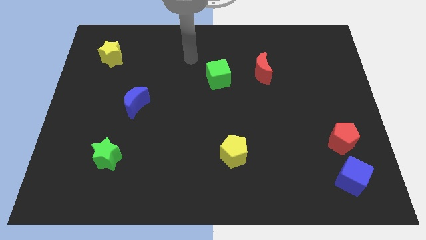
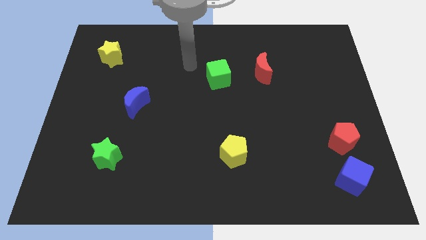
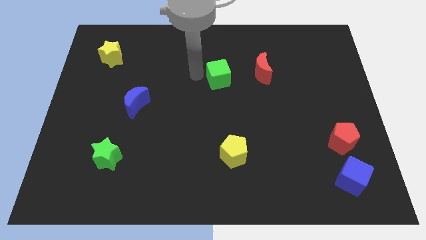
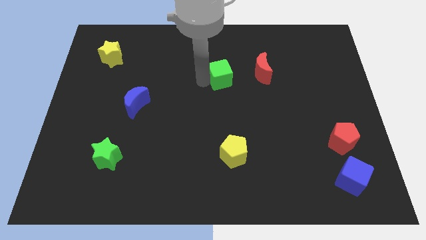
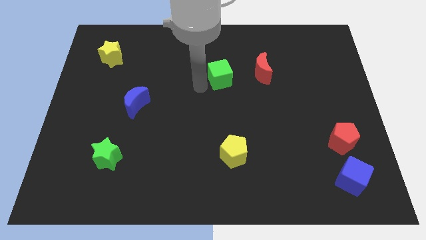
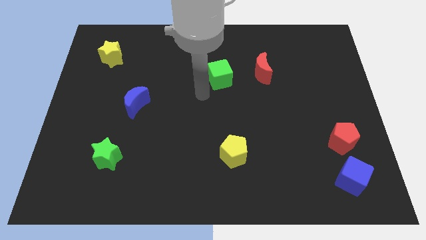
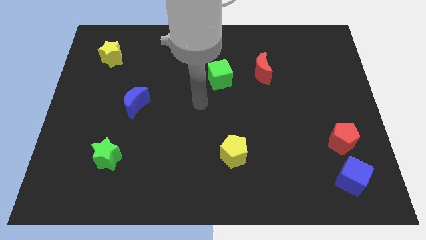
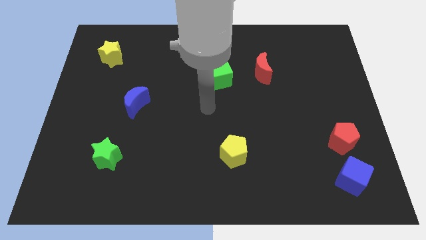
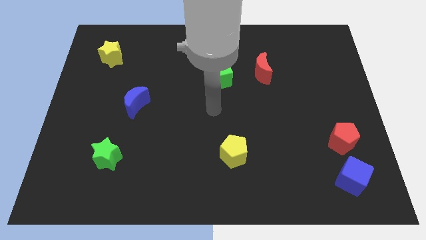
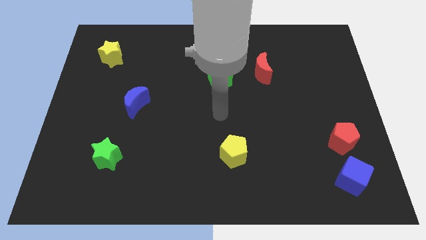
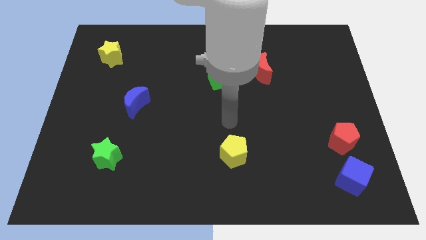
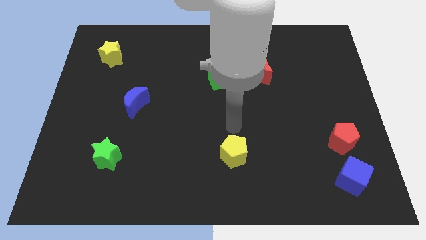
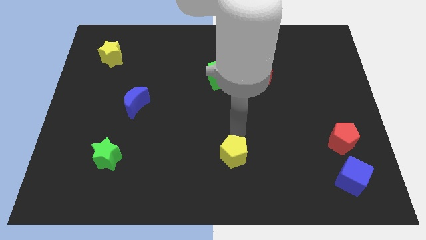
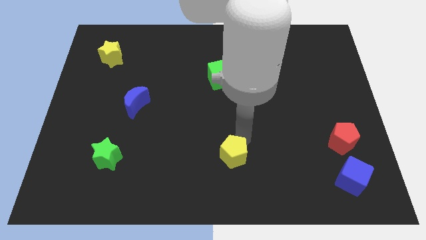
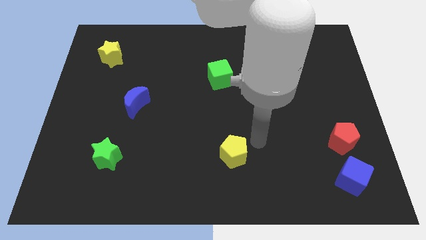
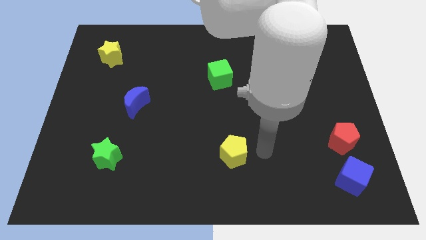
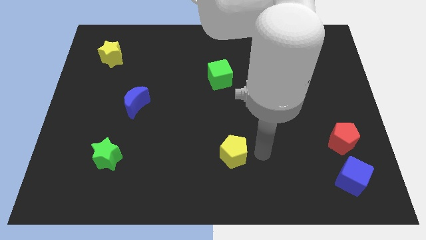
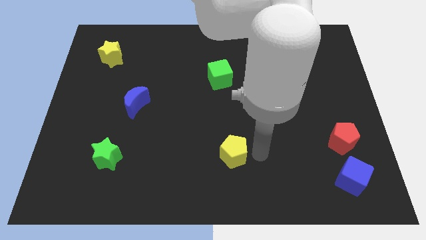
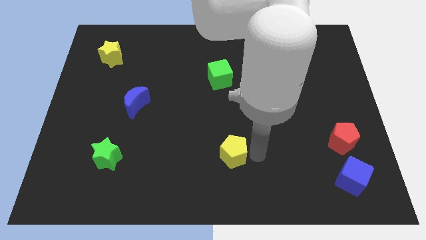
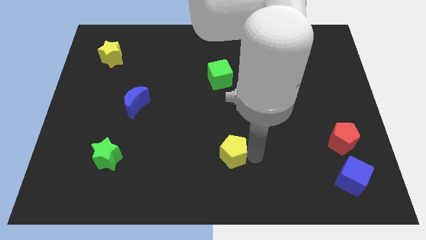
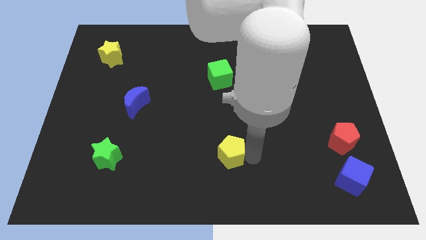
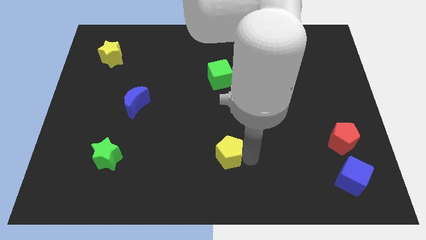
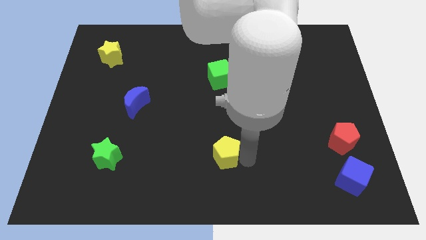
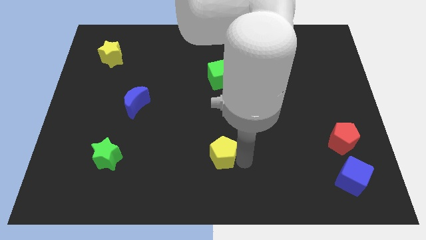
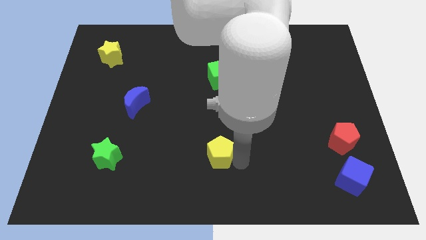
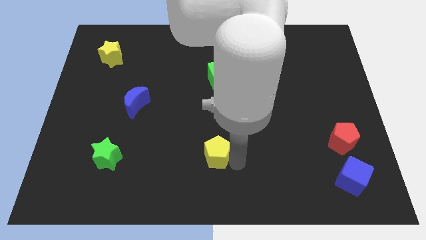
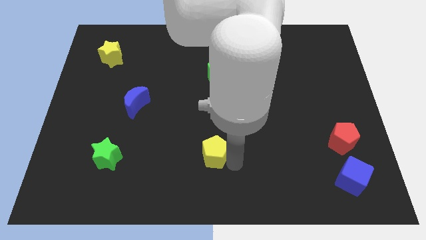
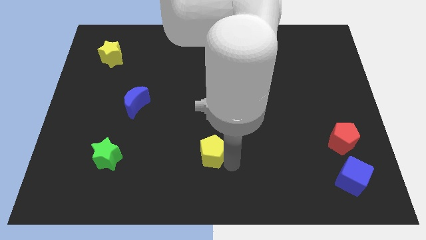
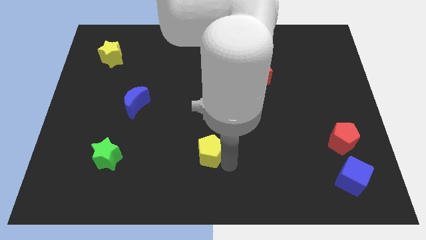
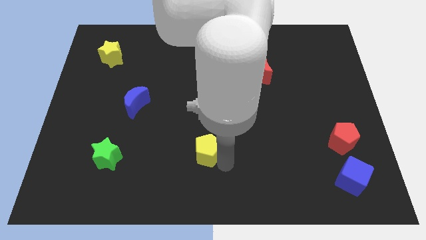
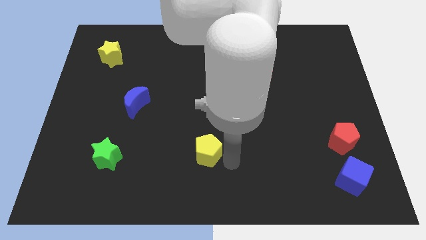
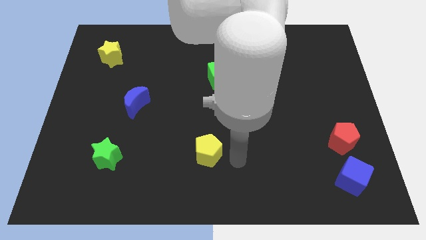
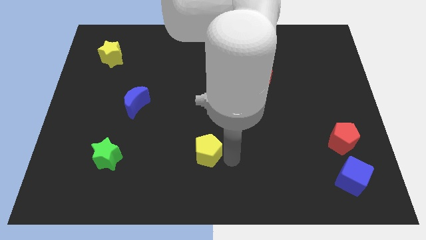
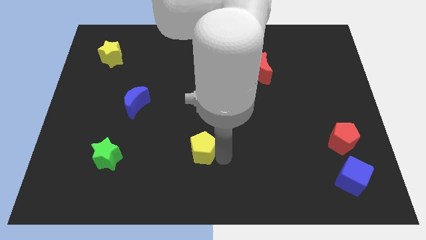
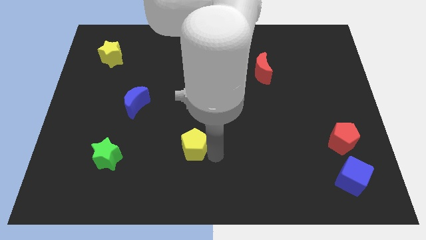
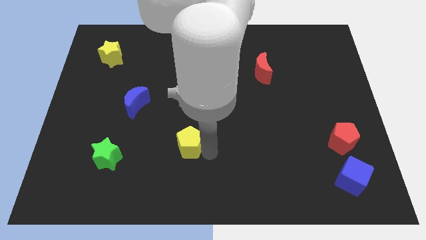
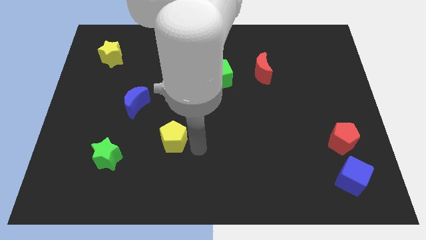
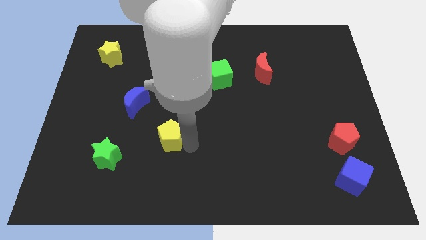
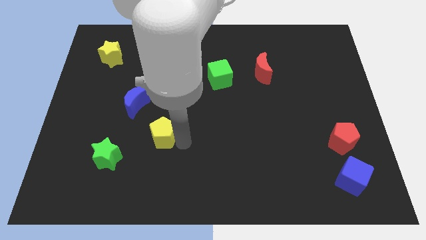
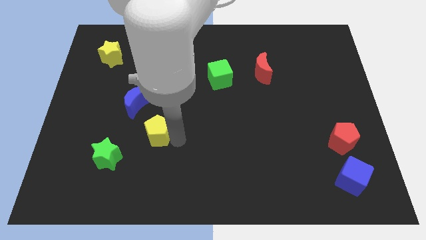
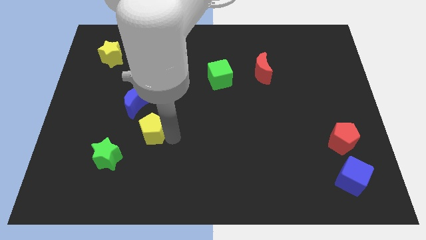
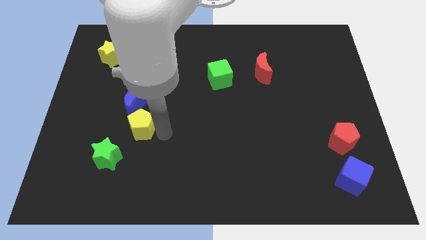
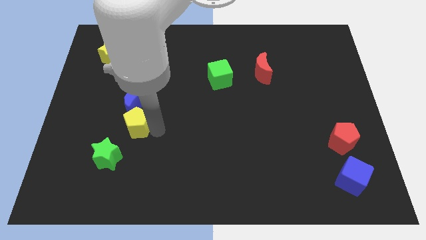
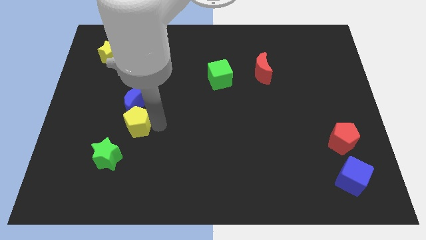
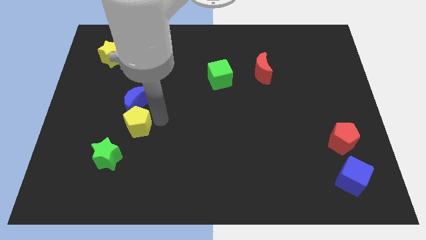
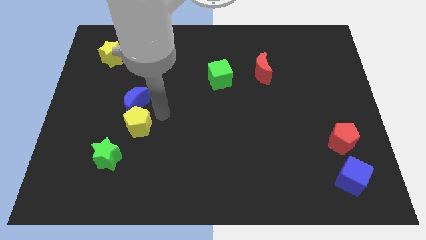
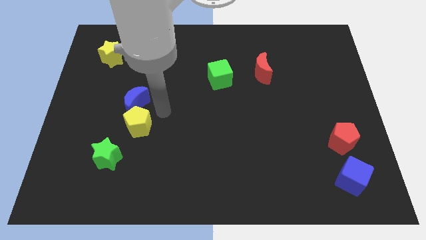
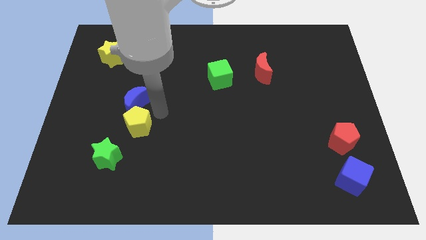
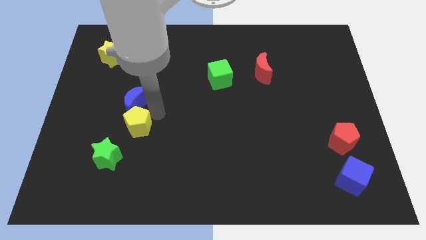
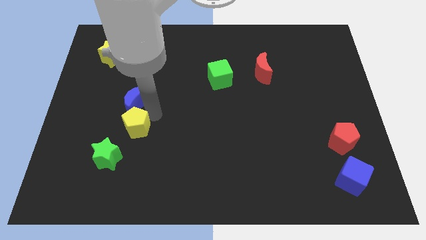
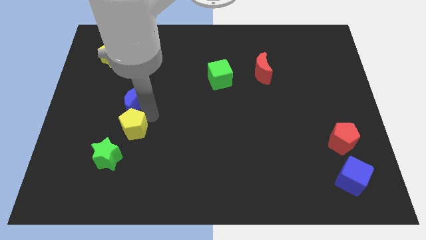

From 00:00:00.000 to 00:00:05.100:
move the yellow pentagon left

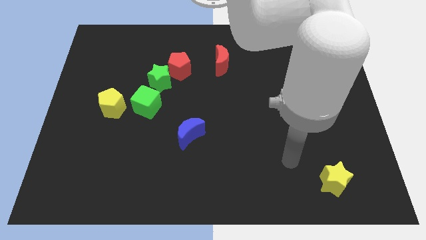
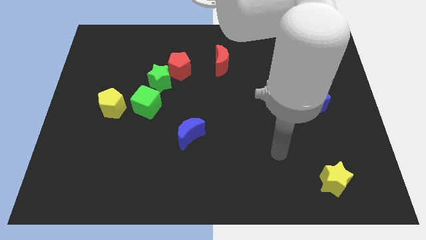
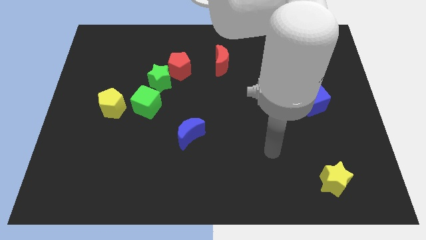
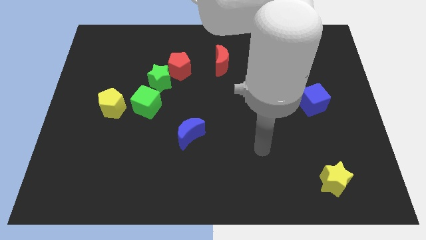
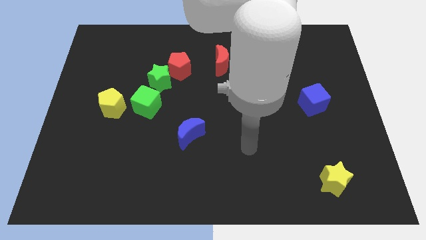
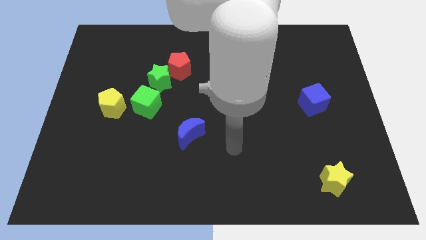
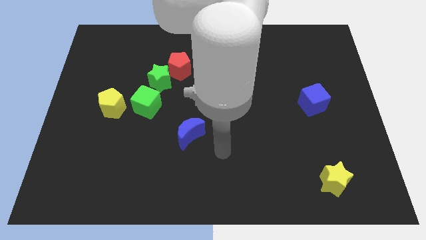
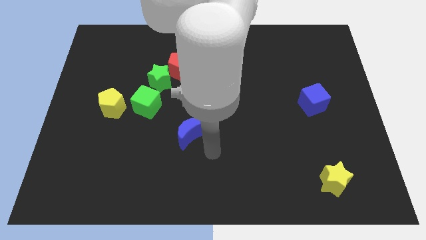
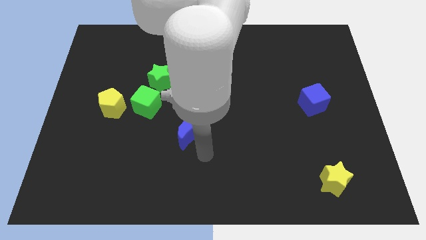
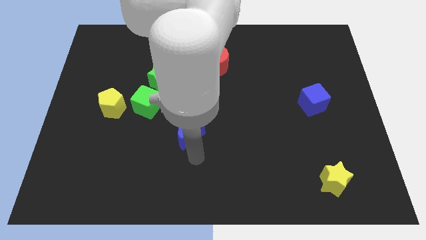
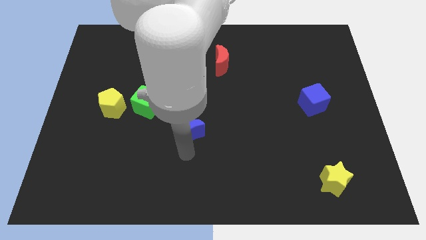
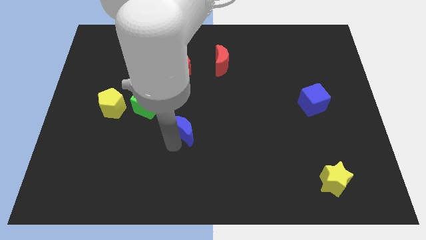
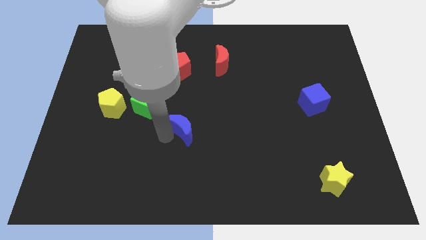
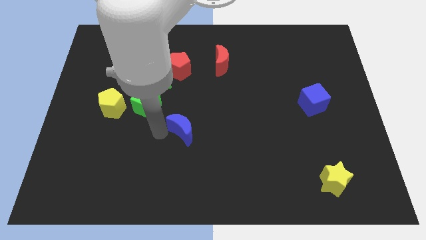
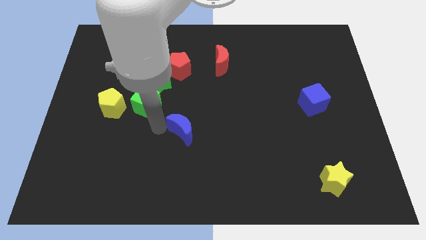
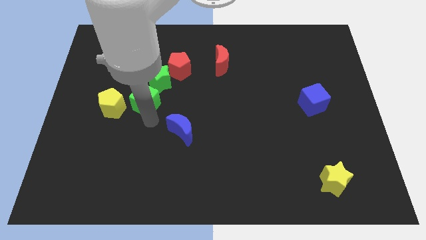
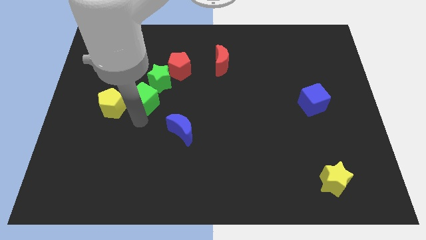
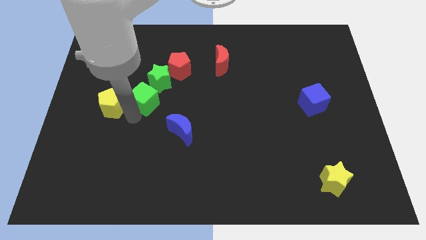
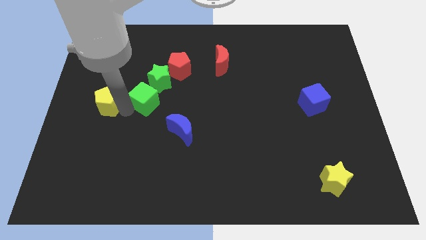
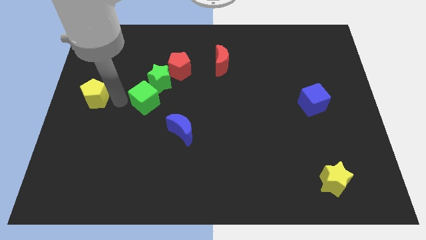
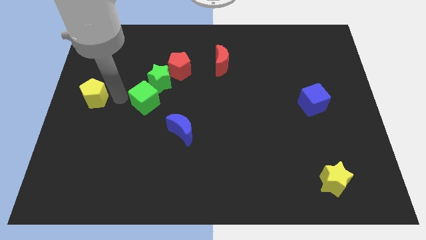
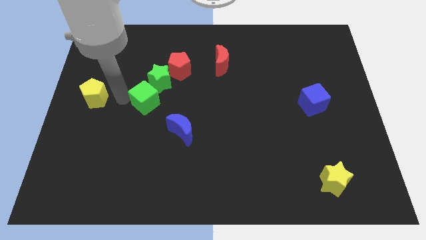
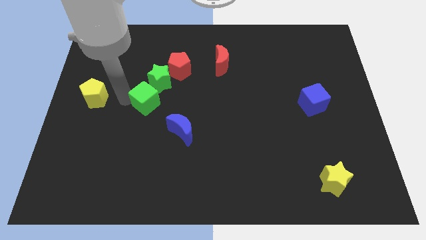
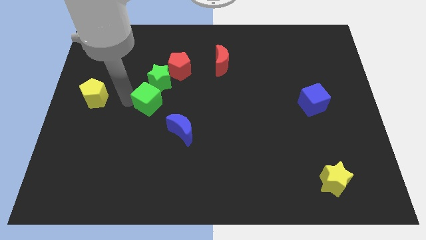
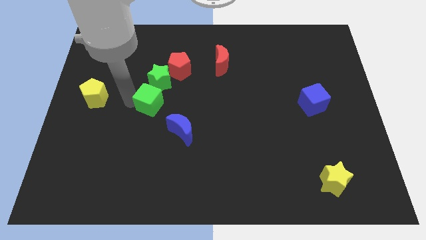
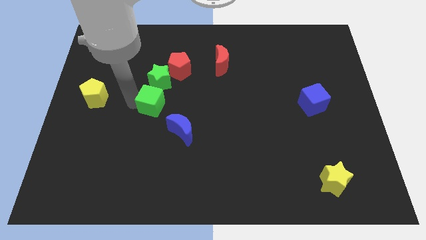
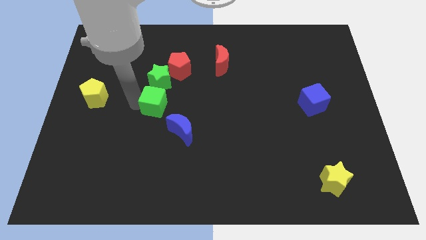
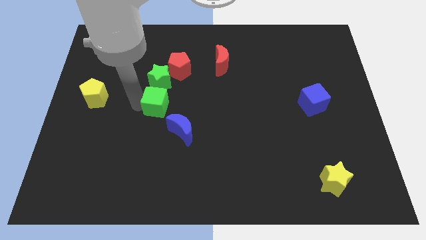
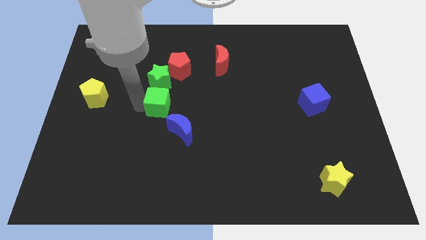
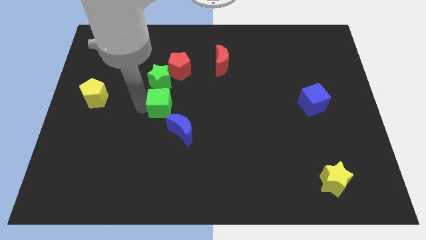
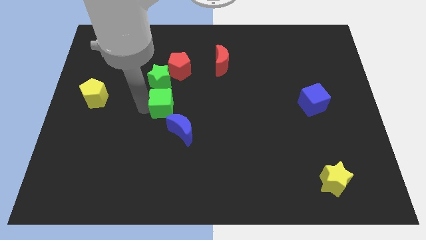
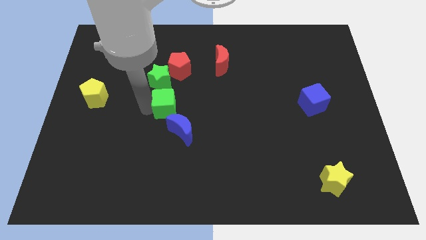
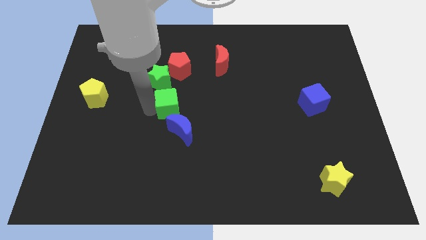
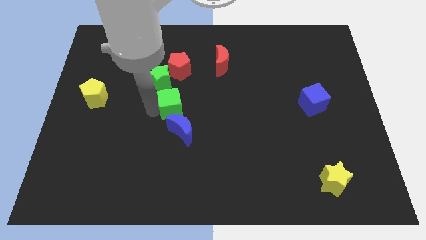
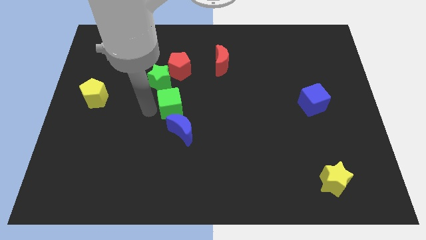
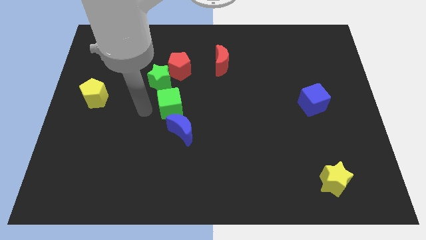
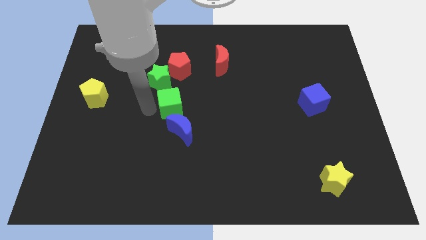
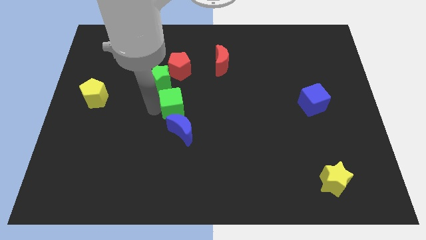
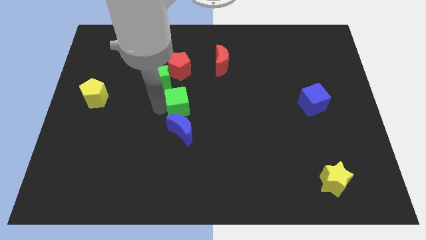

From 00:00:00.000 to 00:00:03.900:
move the green cube a little bit right
